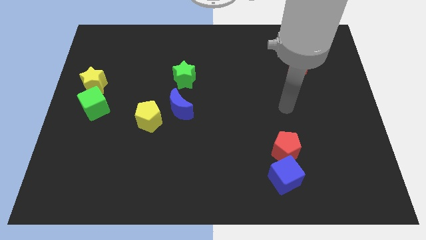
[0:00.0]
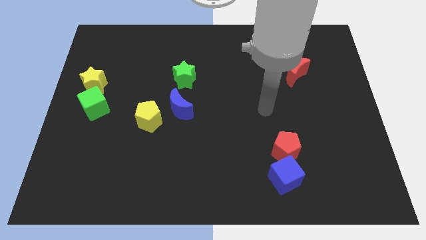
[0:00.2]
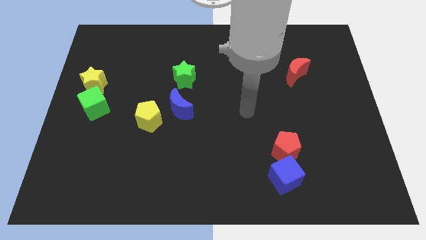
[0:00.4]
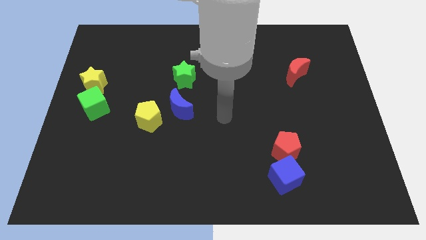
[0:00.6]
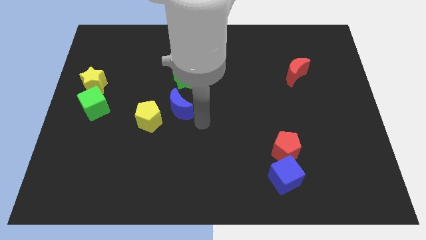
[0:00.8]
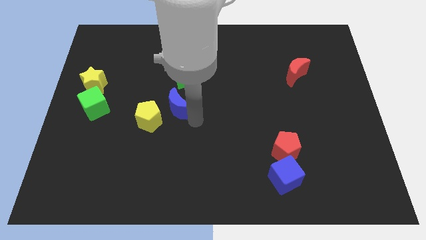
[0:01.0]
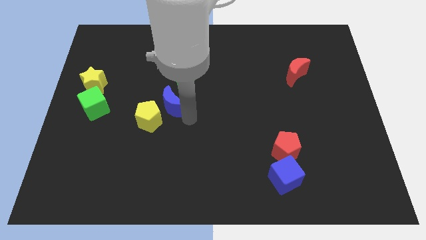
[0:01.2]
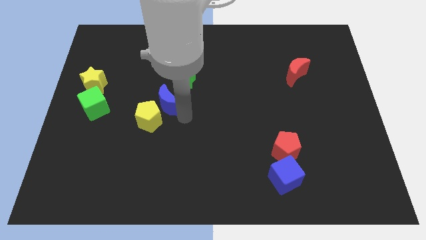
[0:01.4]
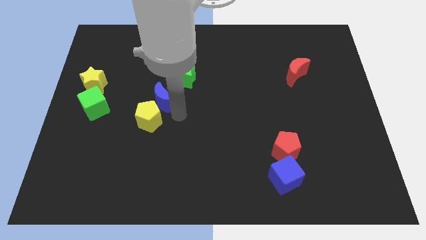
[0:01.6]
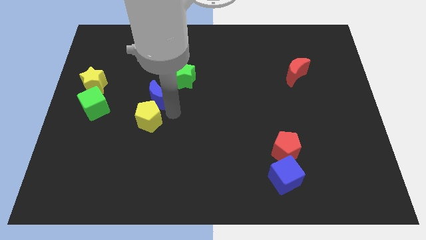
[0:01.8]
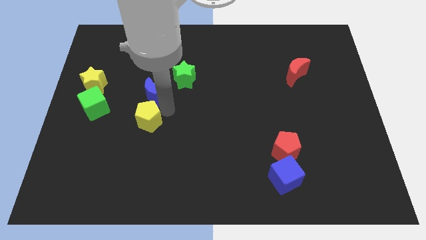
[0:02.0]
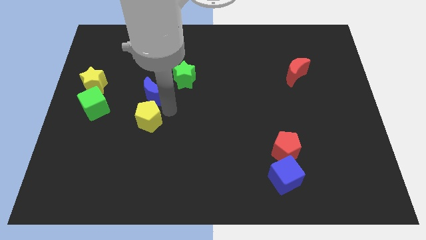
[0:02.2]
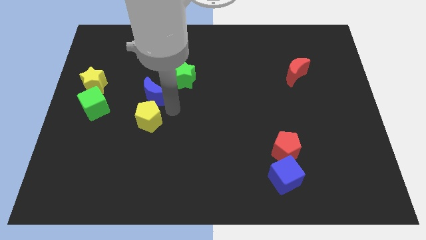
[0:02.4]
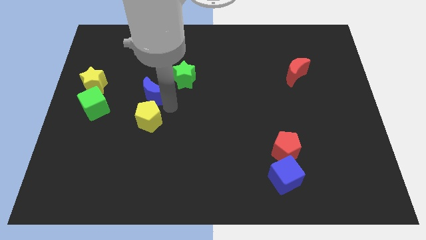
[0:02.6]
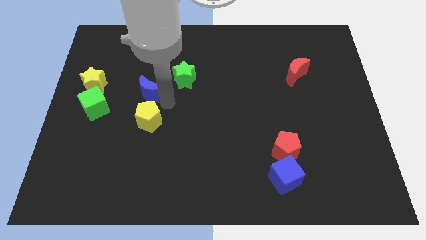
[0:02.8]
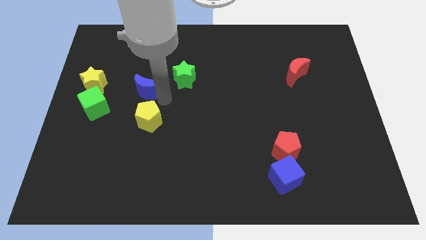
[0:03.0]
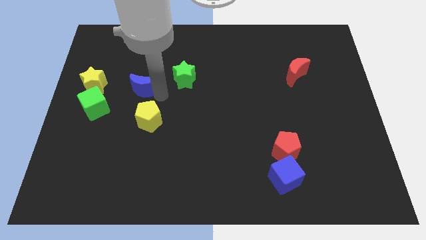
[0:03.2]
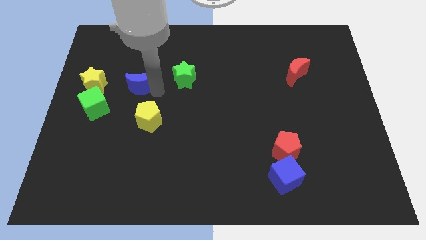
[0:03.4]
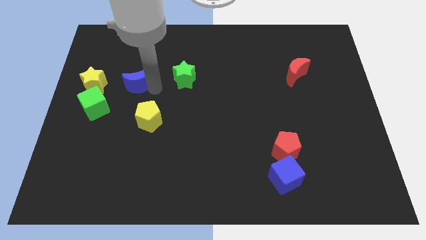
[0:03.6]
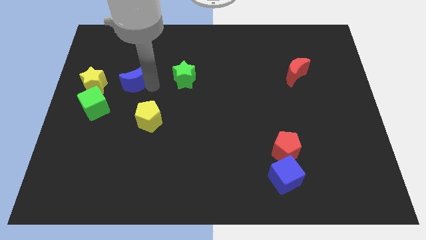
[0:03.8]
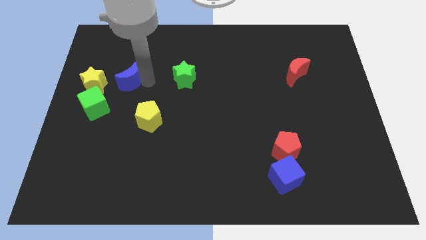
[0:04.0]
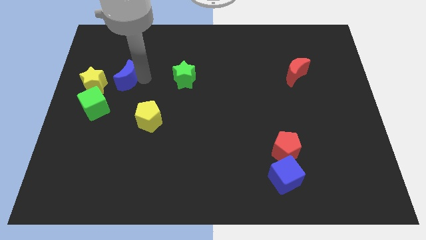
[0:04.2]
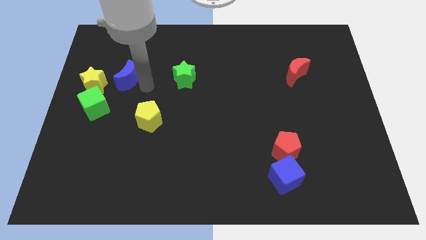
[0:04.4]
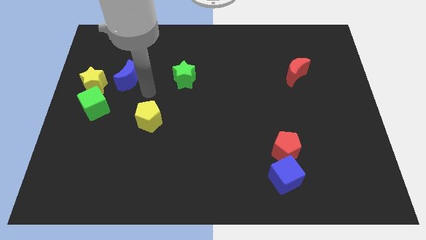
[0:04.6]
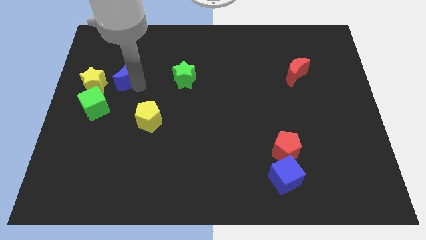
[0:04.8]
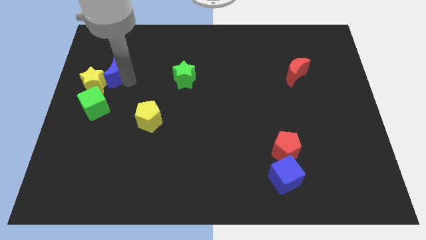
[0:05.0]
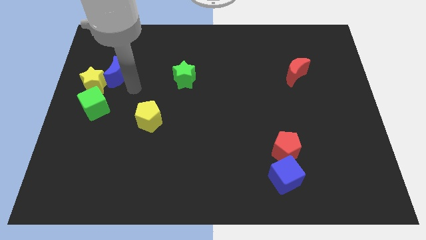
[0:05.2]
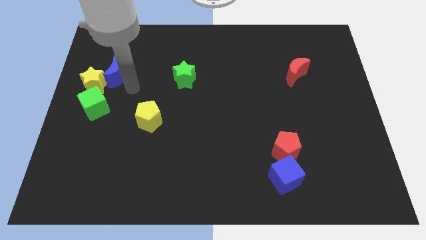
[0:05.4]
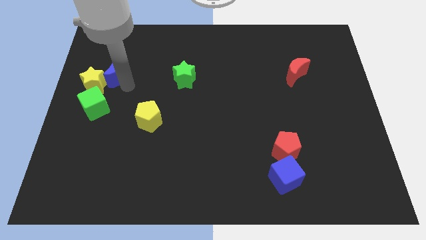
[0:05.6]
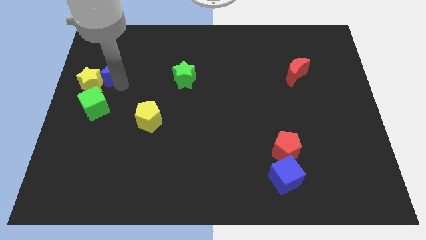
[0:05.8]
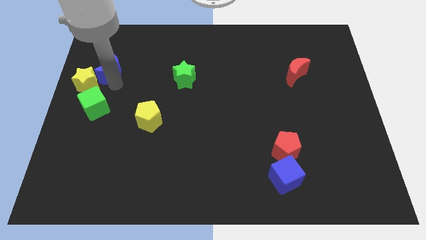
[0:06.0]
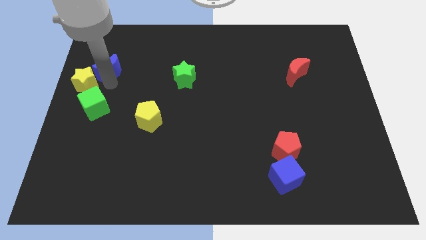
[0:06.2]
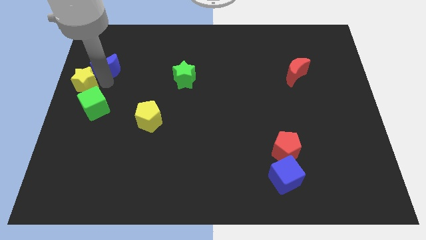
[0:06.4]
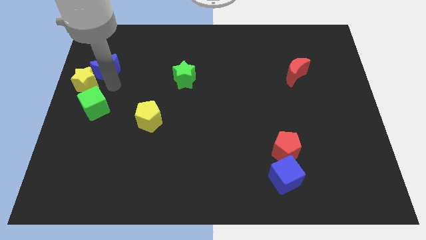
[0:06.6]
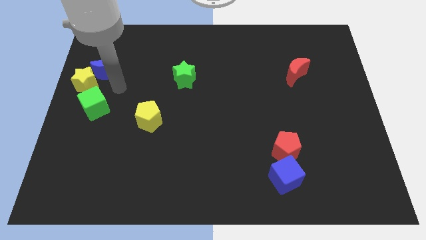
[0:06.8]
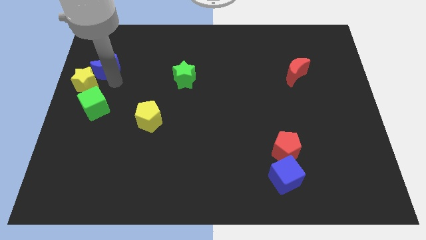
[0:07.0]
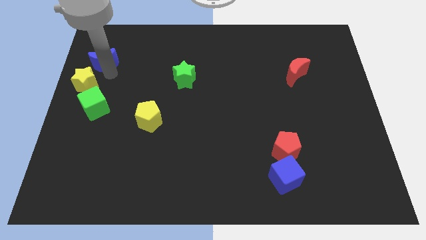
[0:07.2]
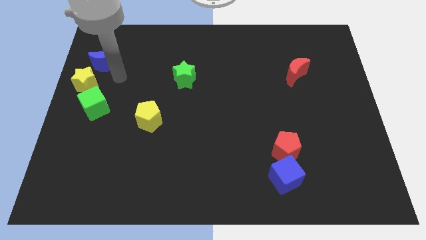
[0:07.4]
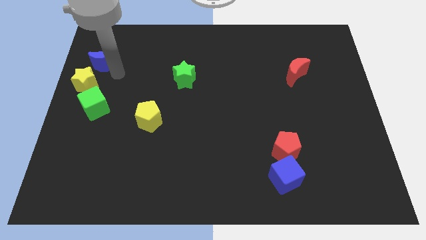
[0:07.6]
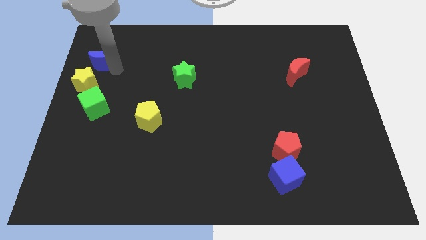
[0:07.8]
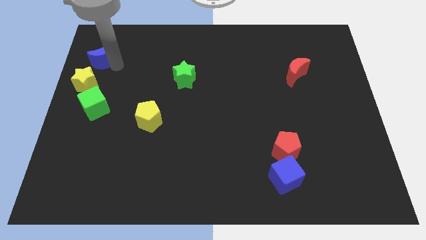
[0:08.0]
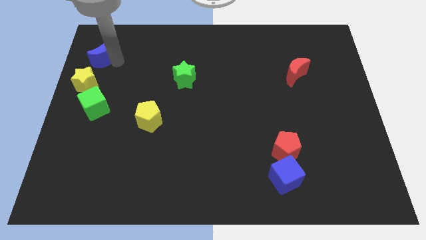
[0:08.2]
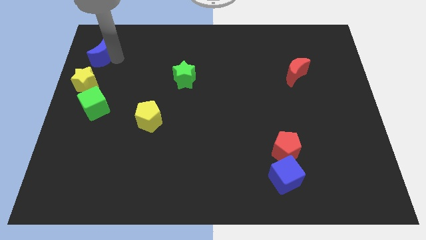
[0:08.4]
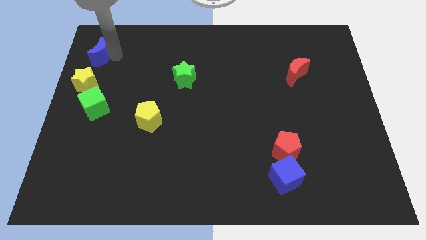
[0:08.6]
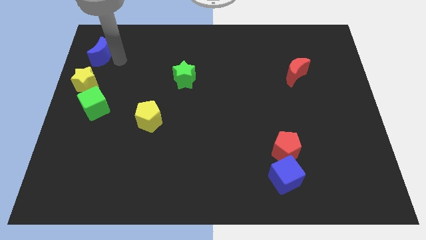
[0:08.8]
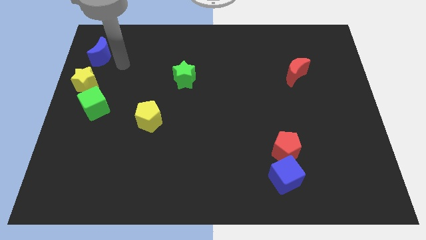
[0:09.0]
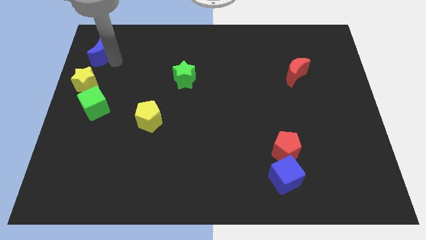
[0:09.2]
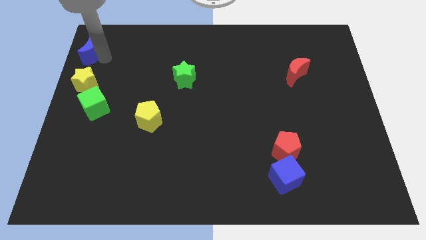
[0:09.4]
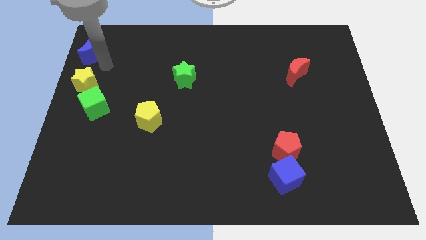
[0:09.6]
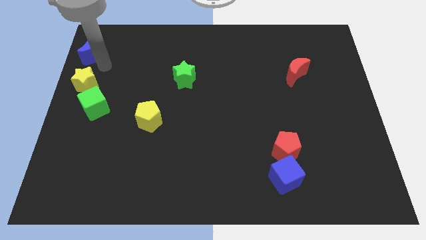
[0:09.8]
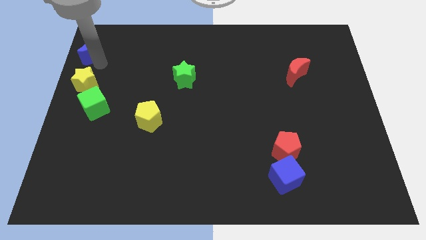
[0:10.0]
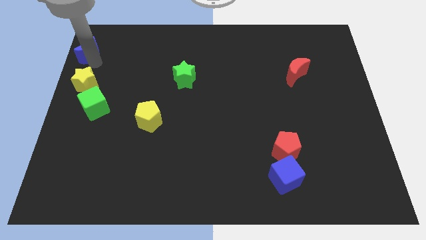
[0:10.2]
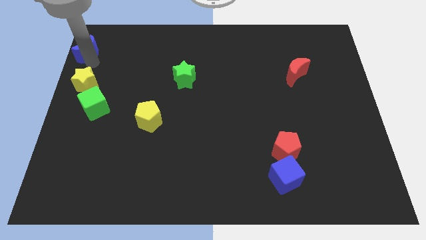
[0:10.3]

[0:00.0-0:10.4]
move the blue moon to the top left corner
